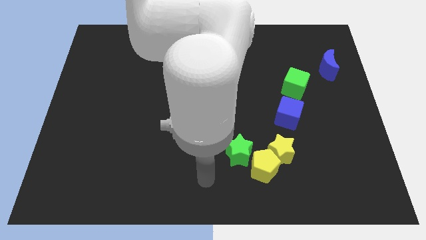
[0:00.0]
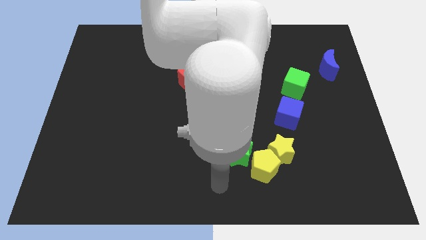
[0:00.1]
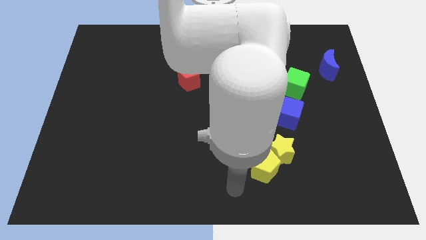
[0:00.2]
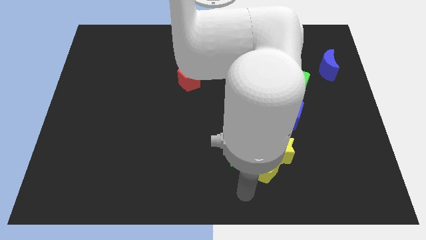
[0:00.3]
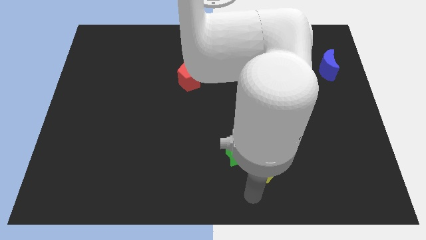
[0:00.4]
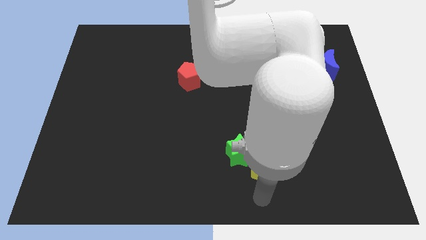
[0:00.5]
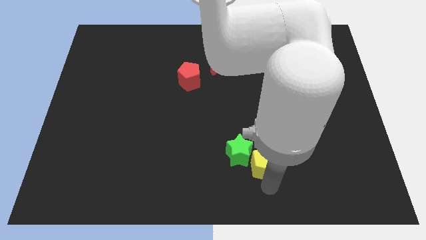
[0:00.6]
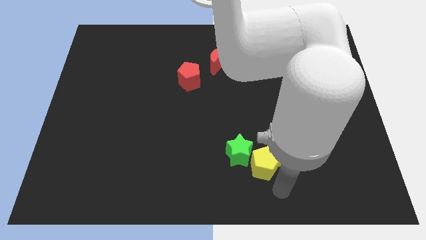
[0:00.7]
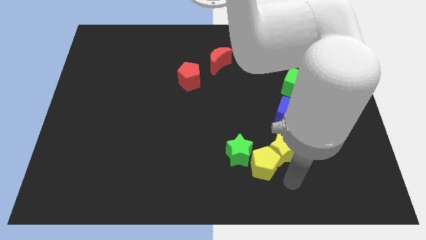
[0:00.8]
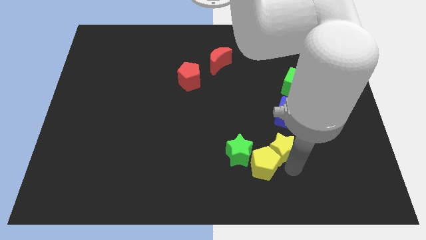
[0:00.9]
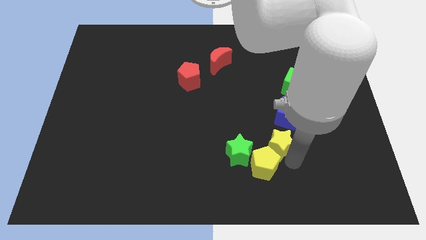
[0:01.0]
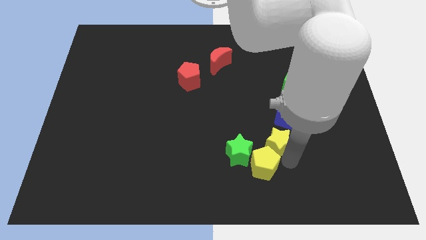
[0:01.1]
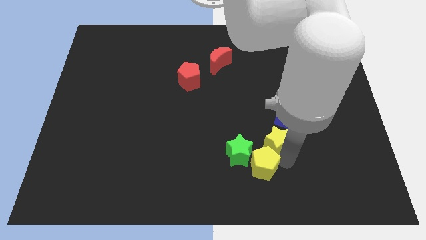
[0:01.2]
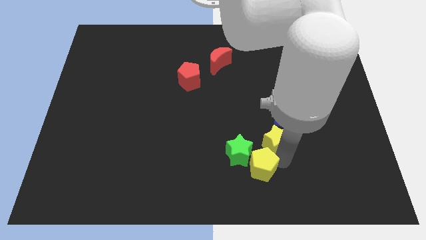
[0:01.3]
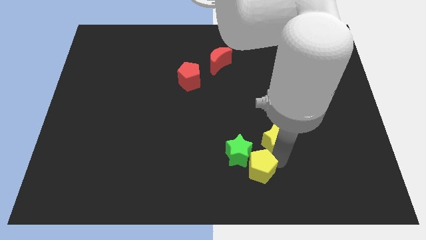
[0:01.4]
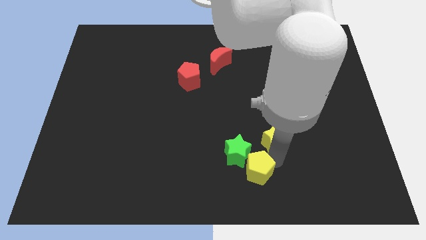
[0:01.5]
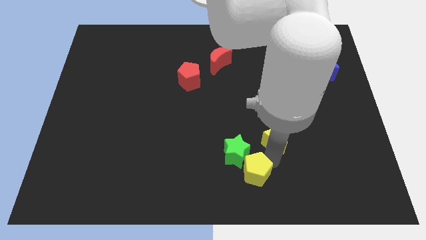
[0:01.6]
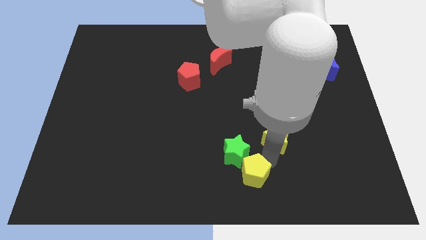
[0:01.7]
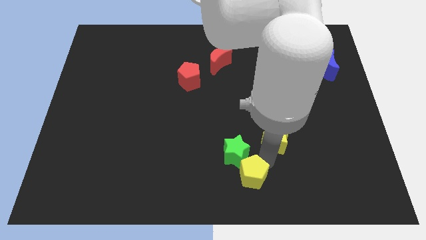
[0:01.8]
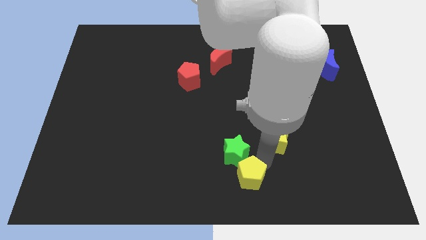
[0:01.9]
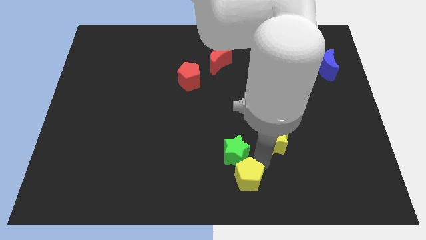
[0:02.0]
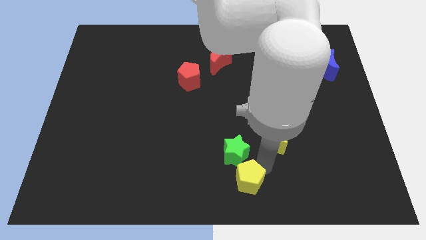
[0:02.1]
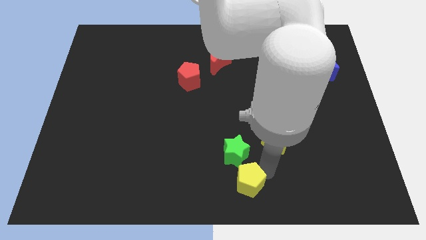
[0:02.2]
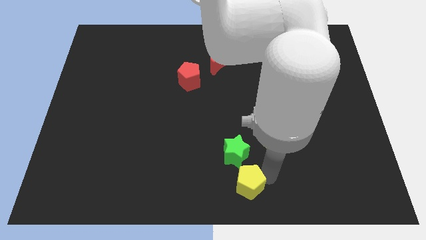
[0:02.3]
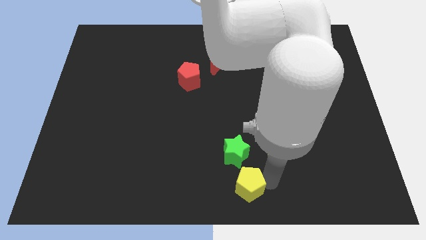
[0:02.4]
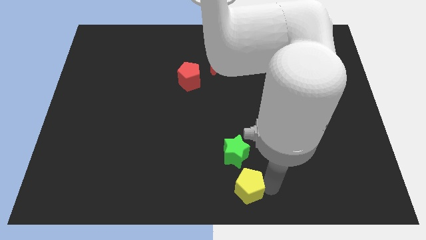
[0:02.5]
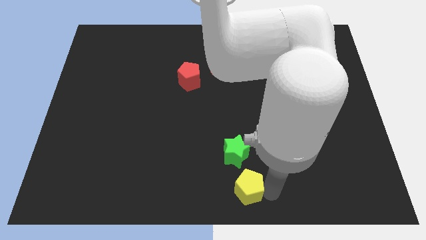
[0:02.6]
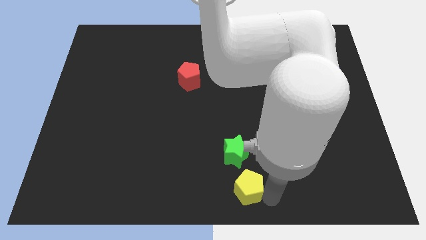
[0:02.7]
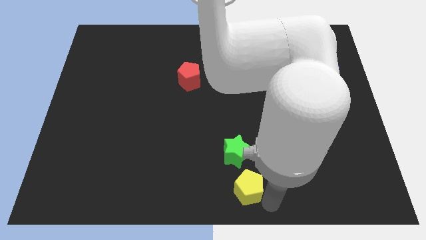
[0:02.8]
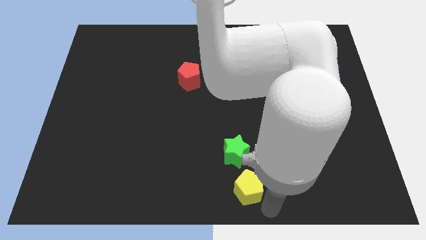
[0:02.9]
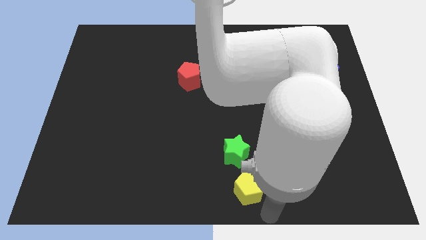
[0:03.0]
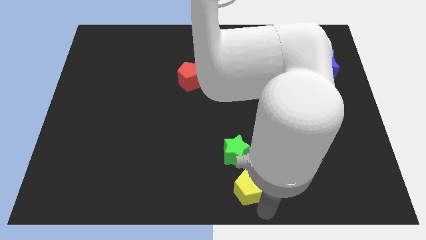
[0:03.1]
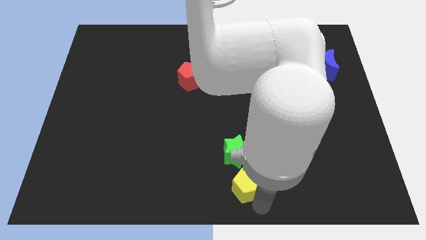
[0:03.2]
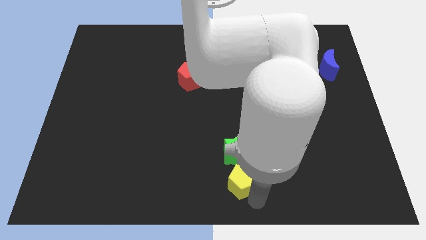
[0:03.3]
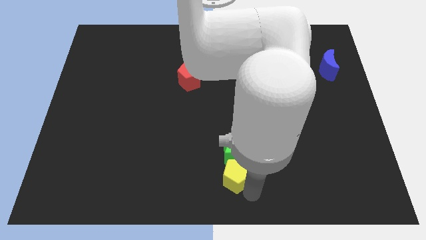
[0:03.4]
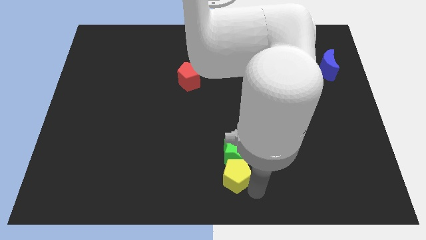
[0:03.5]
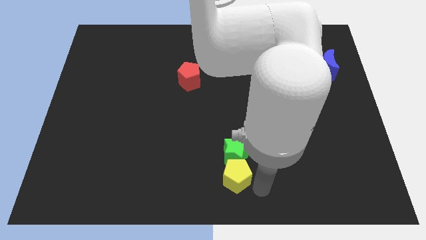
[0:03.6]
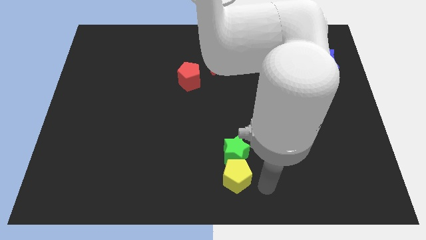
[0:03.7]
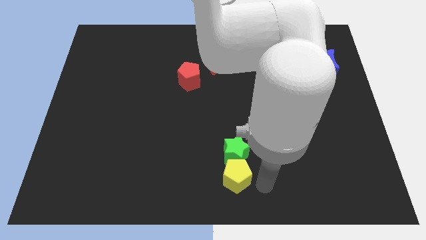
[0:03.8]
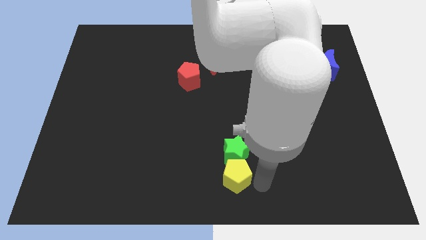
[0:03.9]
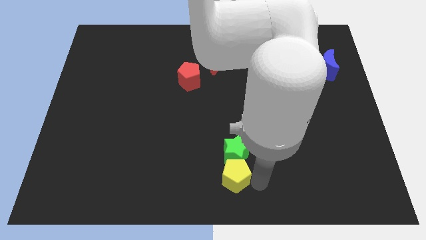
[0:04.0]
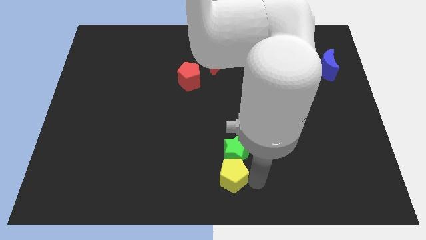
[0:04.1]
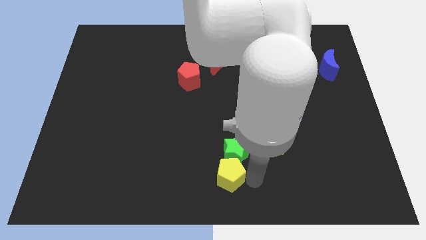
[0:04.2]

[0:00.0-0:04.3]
move the yellow pentagon left a little bit

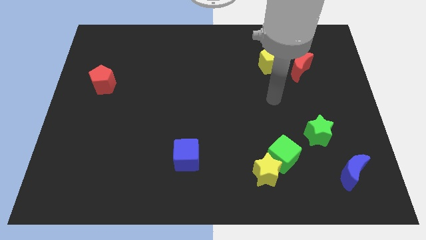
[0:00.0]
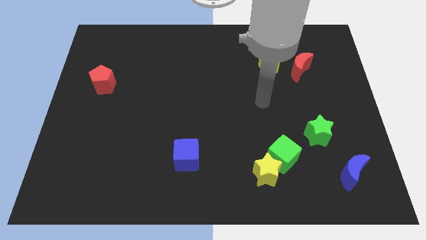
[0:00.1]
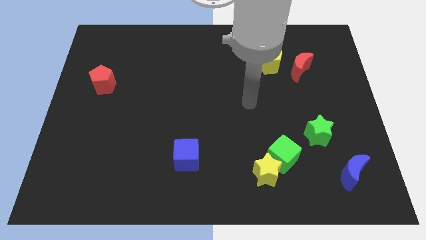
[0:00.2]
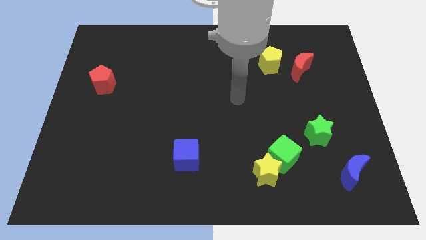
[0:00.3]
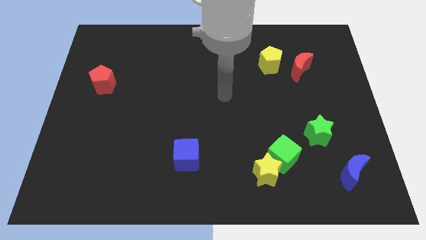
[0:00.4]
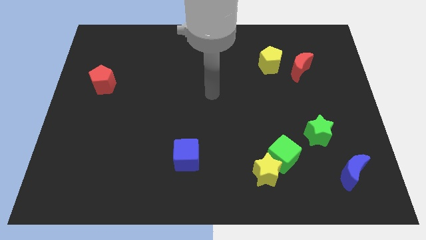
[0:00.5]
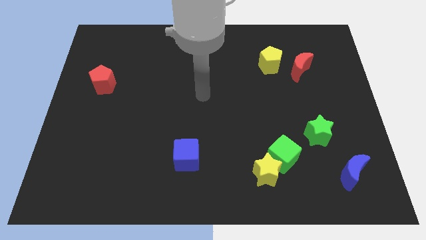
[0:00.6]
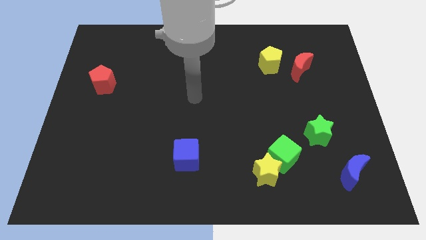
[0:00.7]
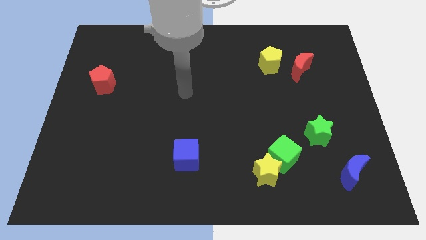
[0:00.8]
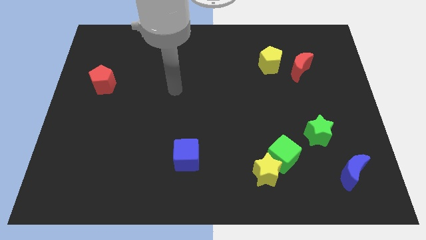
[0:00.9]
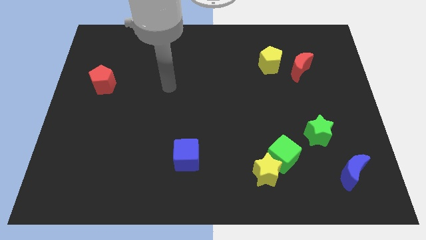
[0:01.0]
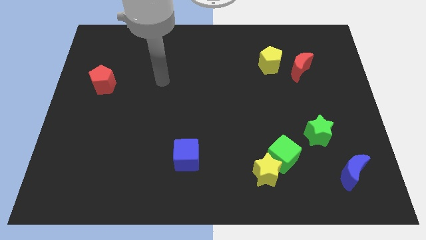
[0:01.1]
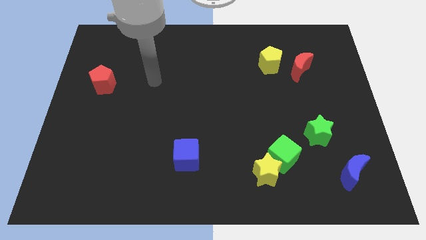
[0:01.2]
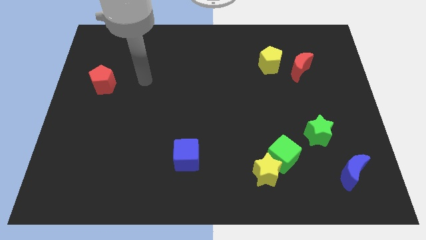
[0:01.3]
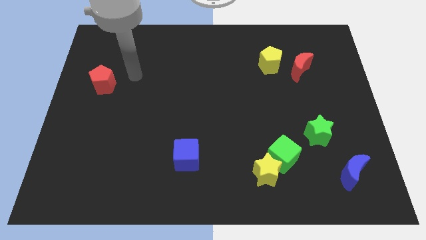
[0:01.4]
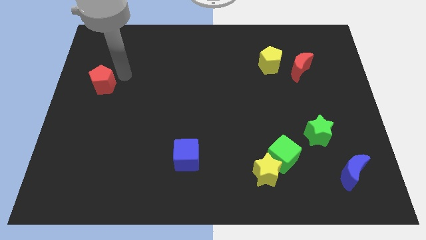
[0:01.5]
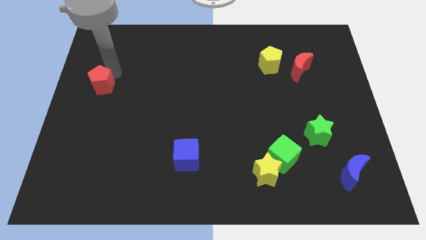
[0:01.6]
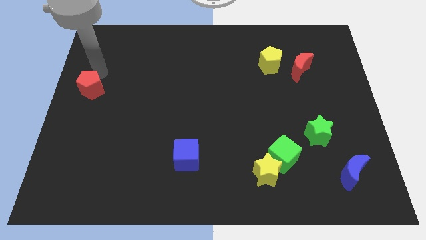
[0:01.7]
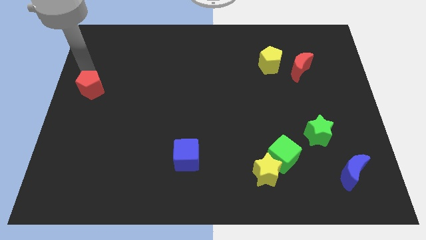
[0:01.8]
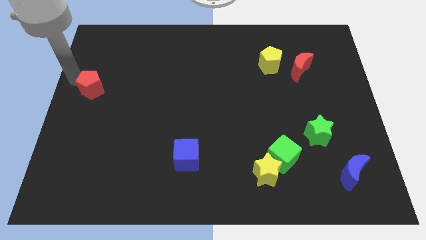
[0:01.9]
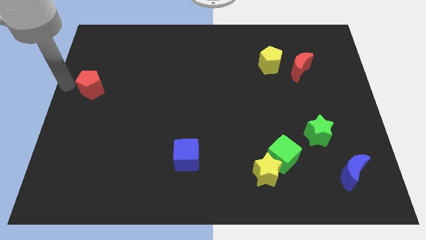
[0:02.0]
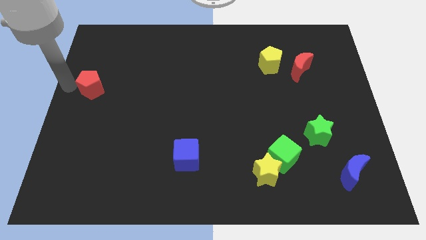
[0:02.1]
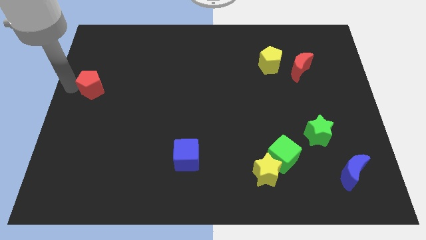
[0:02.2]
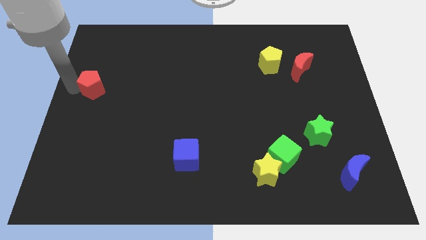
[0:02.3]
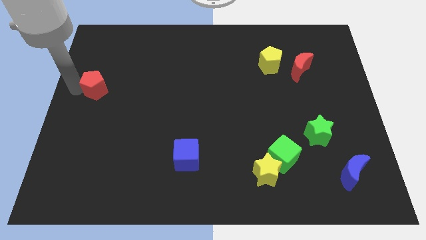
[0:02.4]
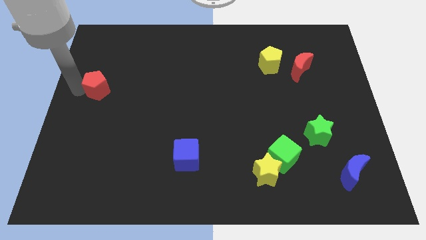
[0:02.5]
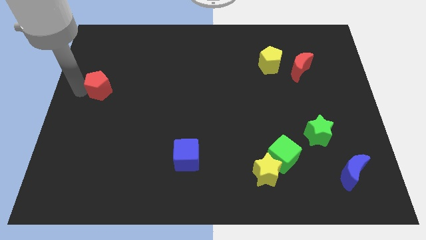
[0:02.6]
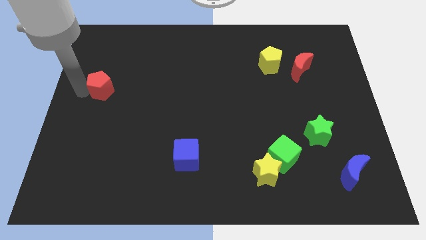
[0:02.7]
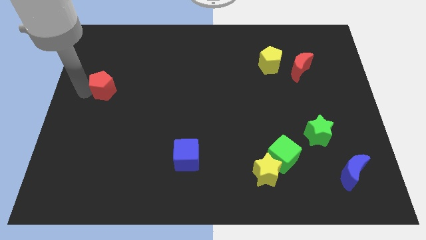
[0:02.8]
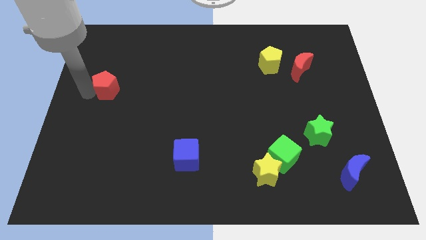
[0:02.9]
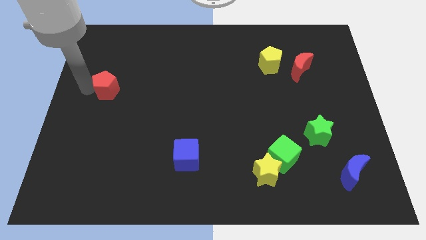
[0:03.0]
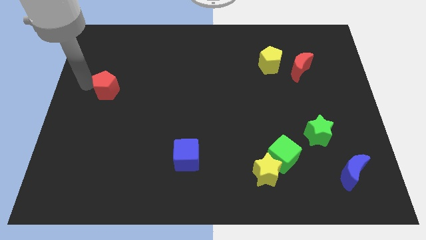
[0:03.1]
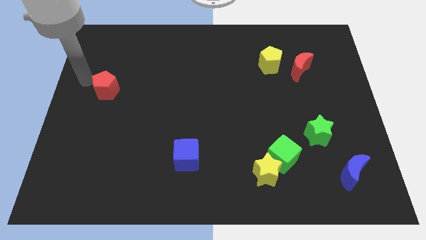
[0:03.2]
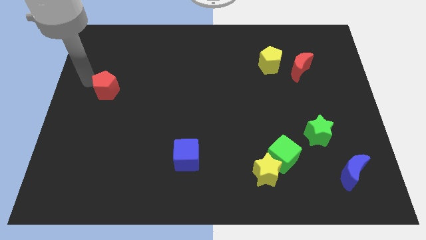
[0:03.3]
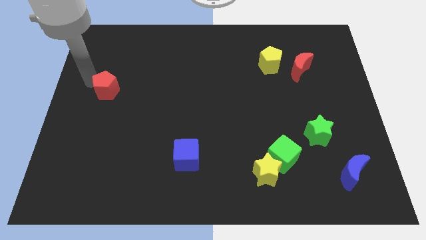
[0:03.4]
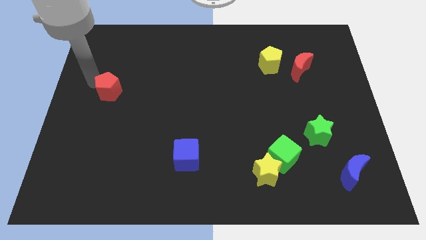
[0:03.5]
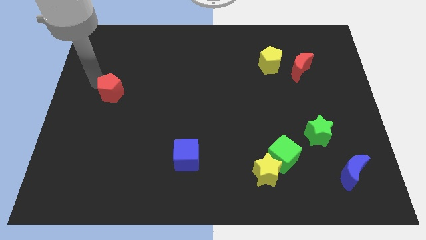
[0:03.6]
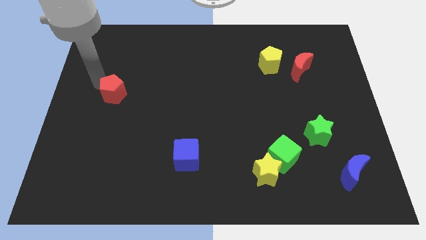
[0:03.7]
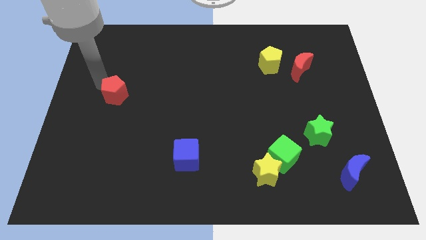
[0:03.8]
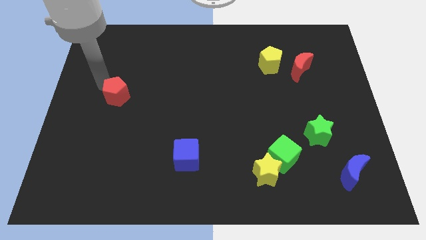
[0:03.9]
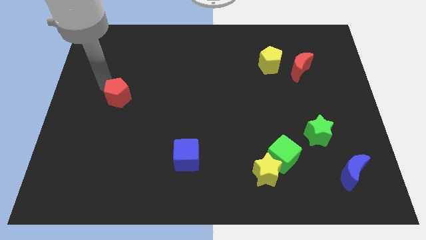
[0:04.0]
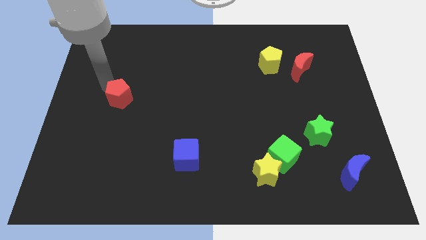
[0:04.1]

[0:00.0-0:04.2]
slightly push the red pentagon diagonally down and to the right
